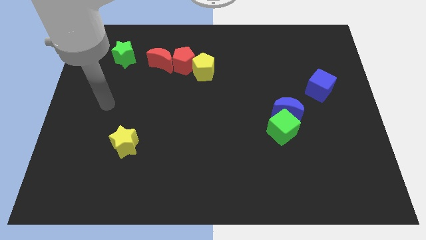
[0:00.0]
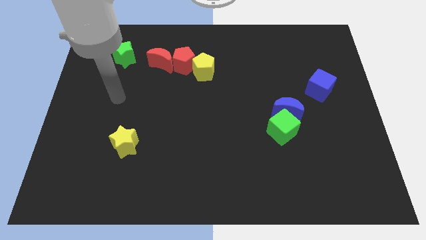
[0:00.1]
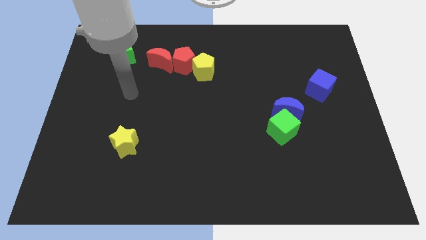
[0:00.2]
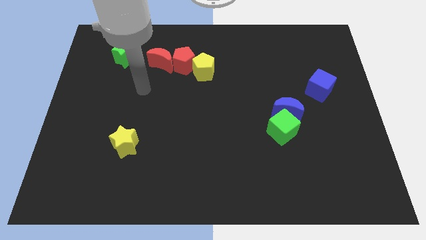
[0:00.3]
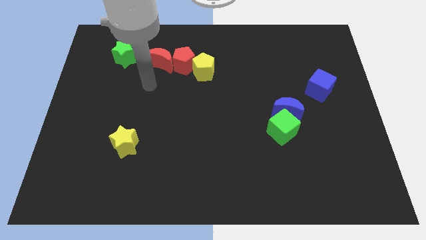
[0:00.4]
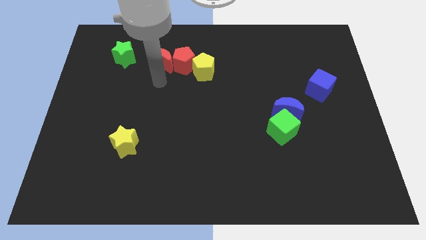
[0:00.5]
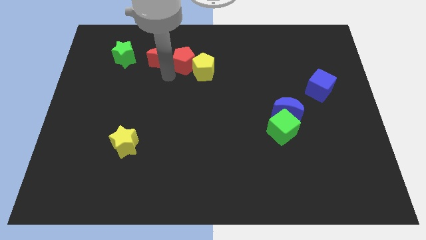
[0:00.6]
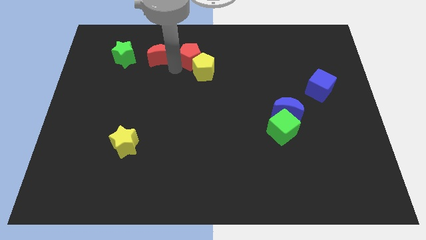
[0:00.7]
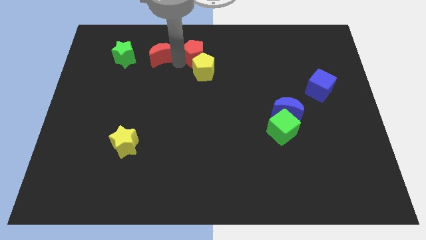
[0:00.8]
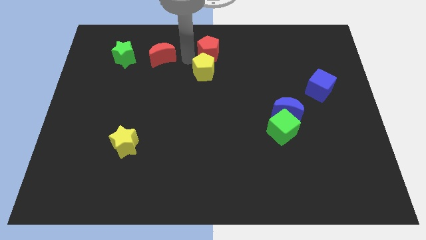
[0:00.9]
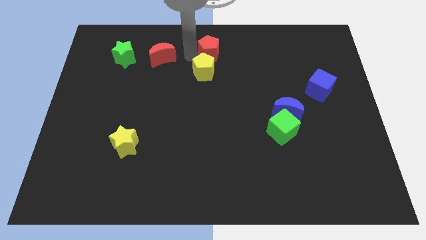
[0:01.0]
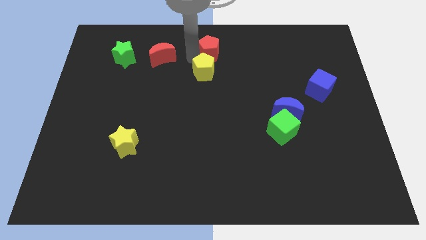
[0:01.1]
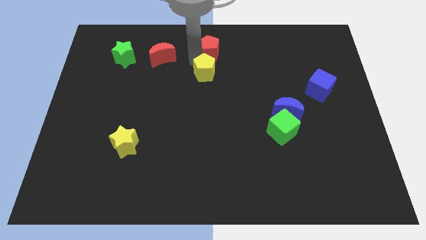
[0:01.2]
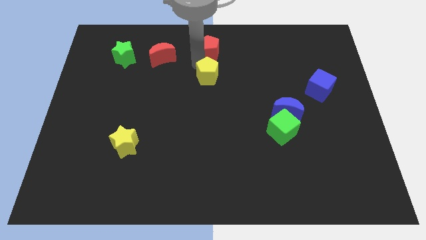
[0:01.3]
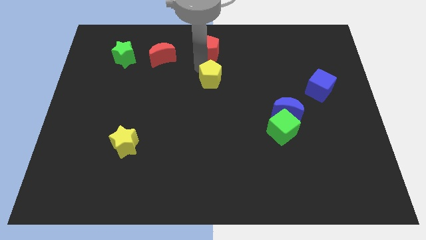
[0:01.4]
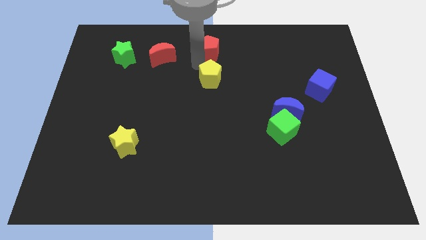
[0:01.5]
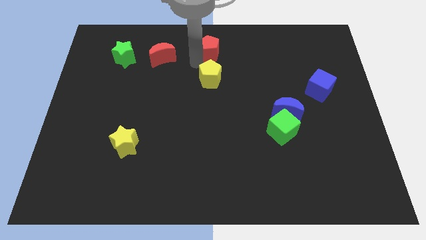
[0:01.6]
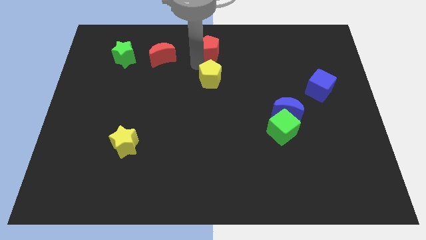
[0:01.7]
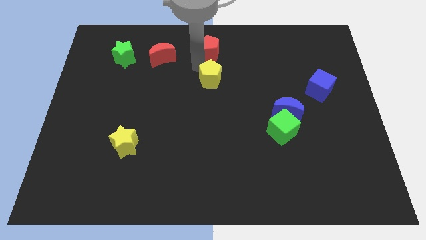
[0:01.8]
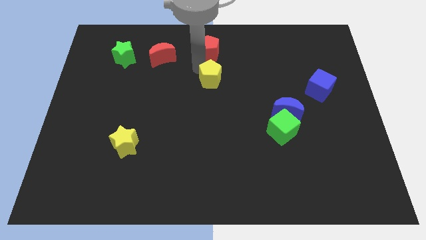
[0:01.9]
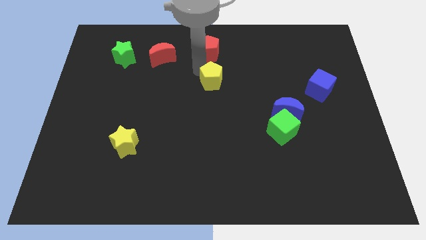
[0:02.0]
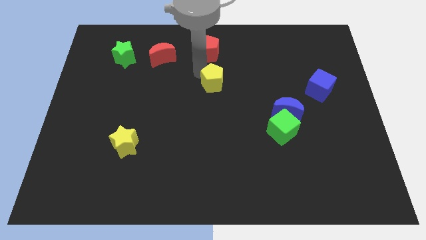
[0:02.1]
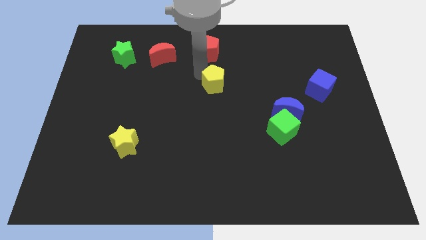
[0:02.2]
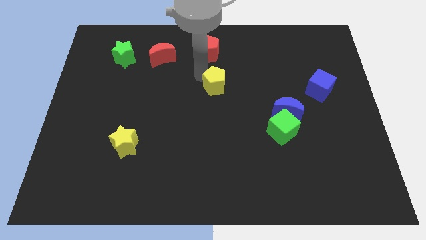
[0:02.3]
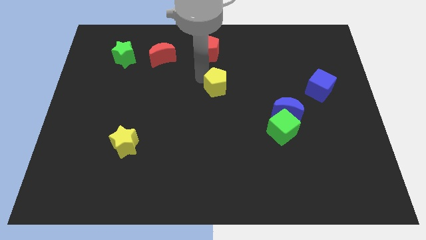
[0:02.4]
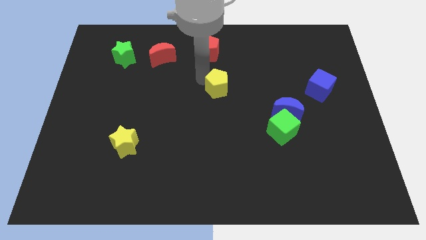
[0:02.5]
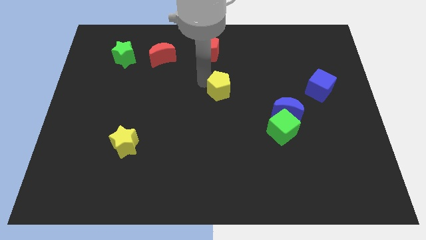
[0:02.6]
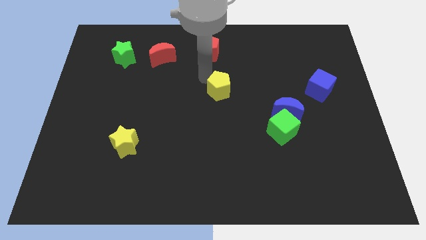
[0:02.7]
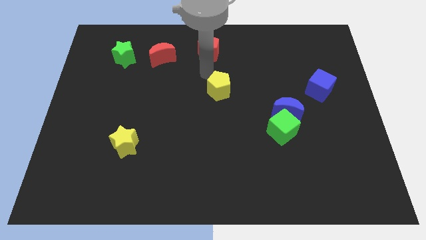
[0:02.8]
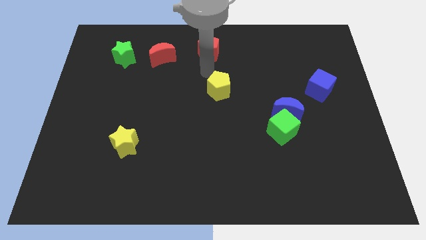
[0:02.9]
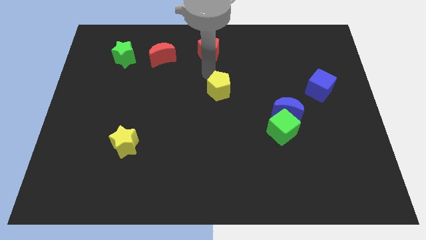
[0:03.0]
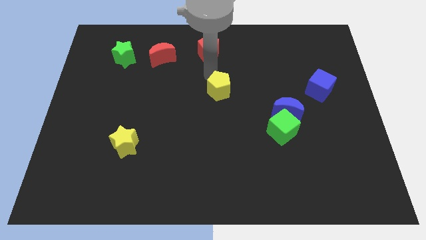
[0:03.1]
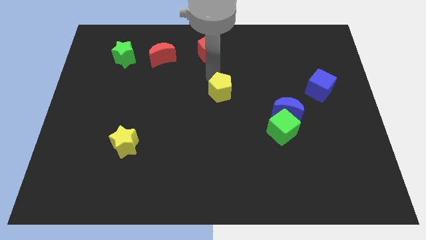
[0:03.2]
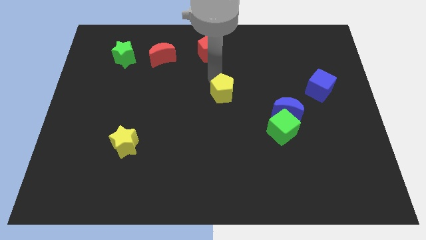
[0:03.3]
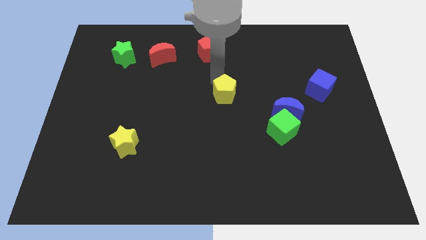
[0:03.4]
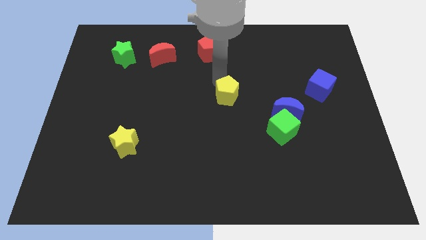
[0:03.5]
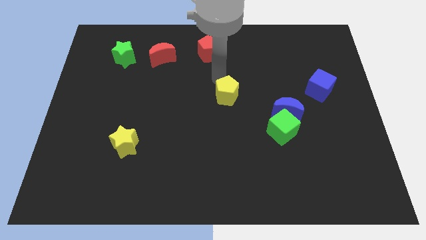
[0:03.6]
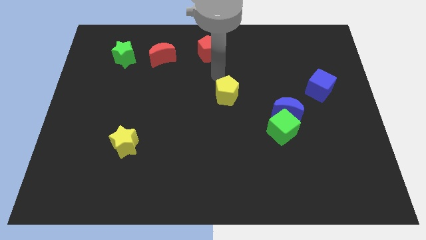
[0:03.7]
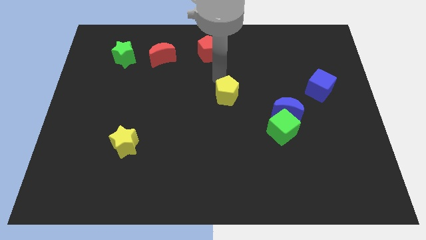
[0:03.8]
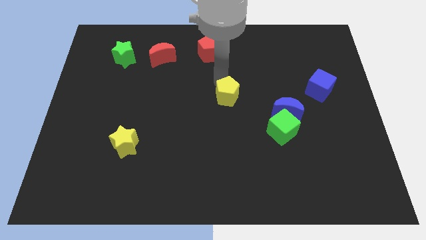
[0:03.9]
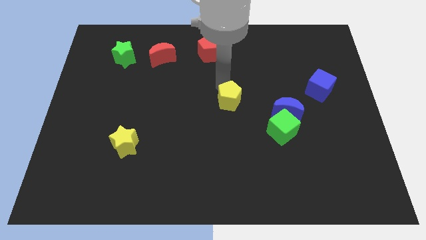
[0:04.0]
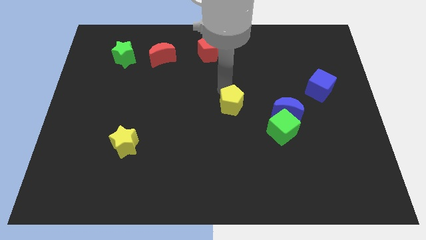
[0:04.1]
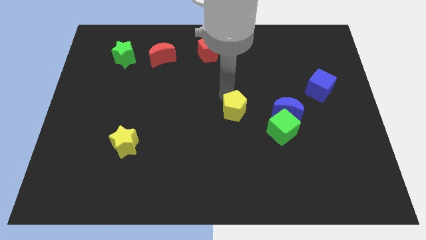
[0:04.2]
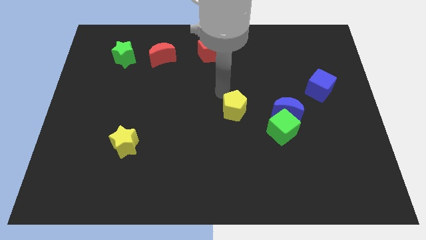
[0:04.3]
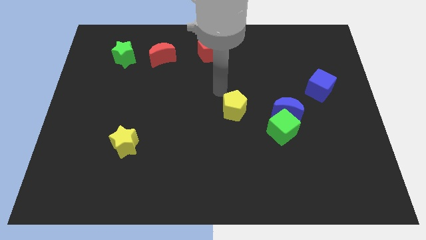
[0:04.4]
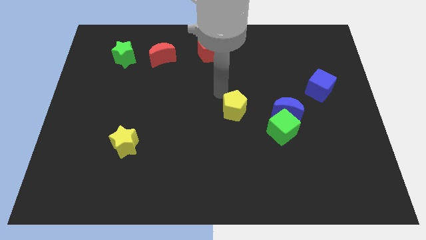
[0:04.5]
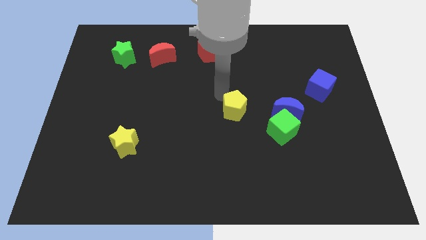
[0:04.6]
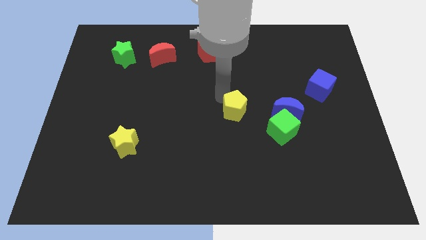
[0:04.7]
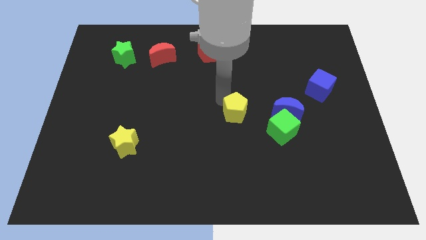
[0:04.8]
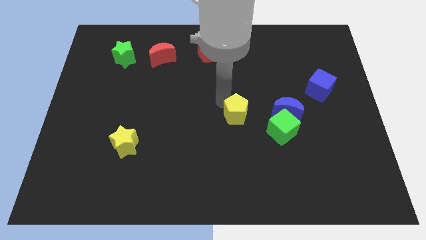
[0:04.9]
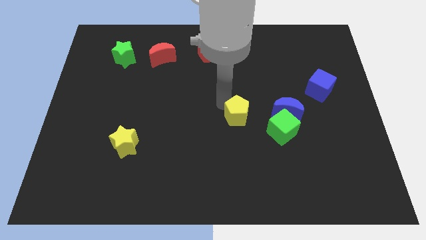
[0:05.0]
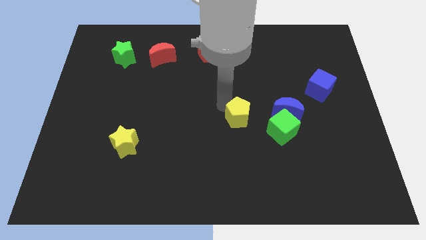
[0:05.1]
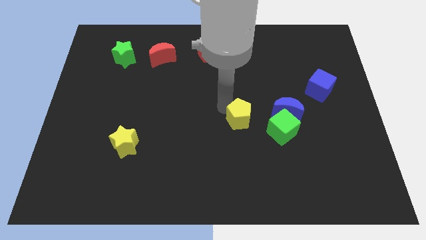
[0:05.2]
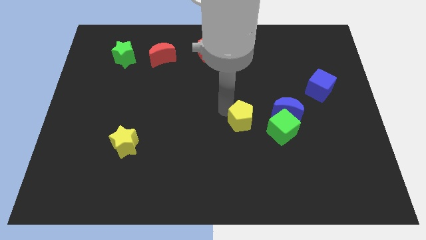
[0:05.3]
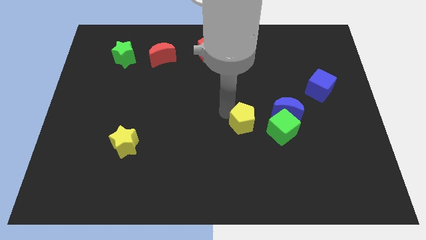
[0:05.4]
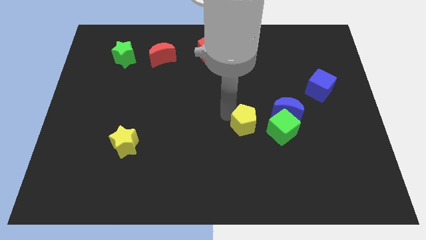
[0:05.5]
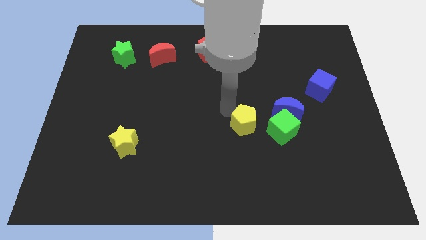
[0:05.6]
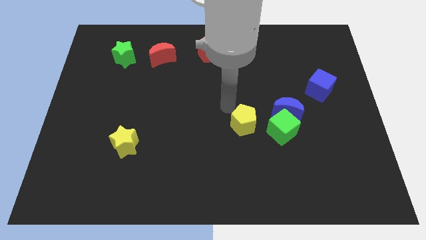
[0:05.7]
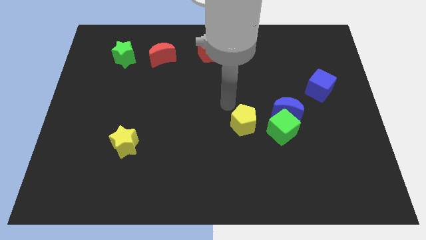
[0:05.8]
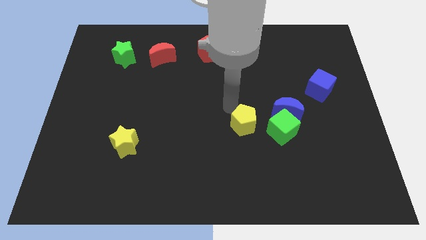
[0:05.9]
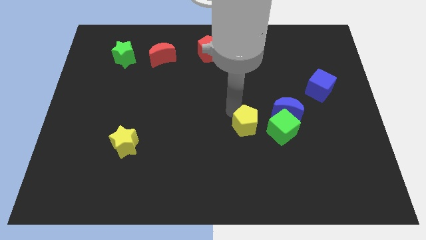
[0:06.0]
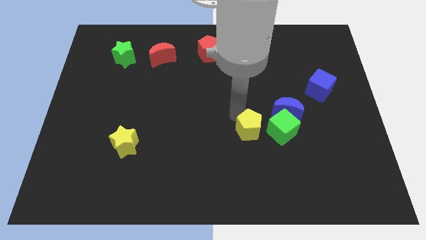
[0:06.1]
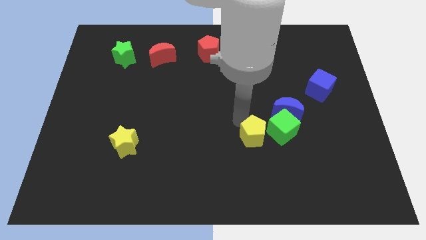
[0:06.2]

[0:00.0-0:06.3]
slide the yellow pentagon diagonally down and to the right

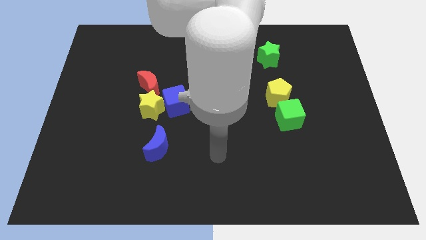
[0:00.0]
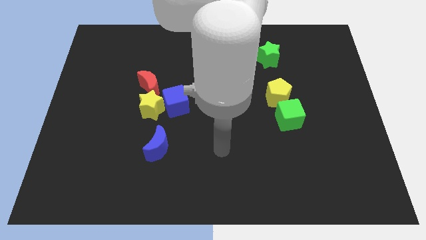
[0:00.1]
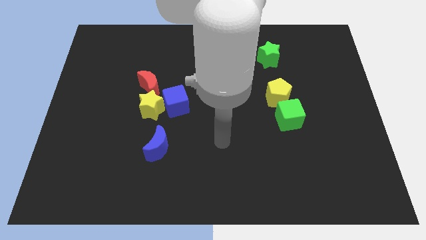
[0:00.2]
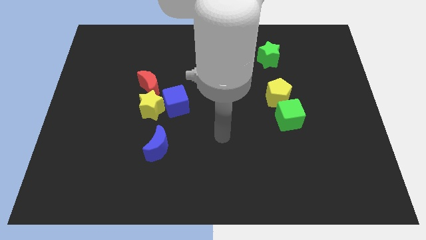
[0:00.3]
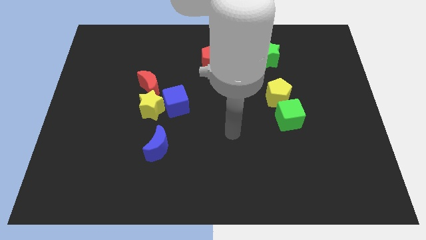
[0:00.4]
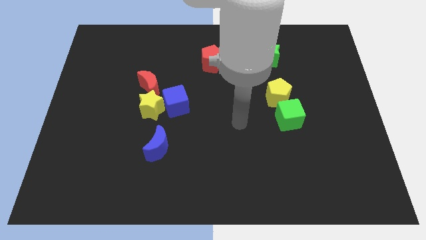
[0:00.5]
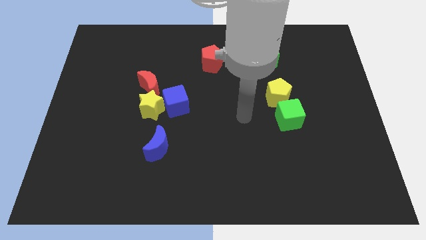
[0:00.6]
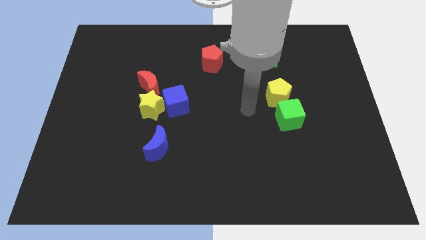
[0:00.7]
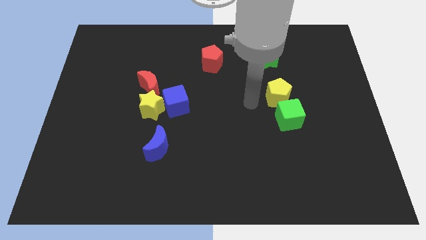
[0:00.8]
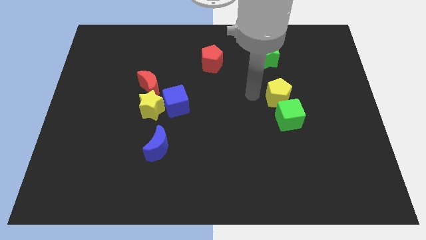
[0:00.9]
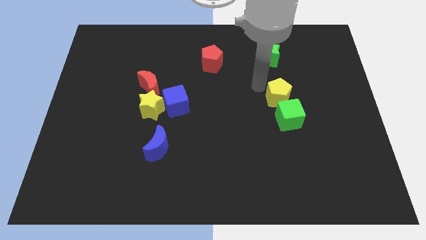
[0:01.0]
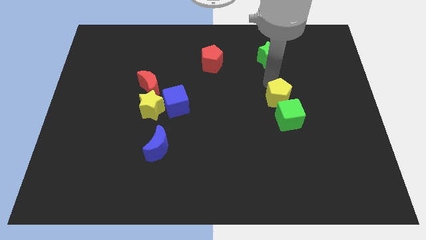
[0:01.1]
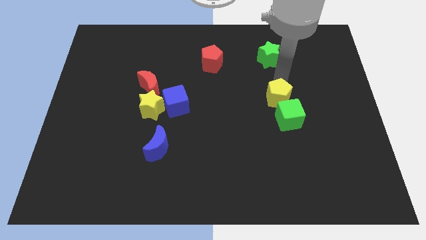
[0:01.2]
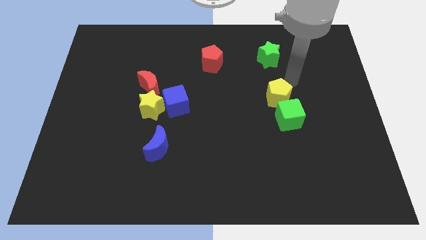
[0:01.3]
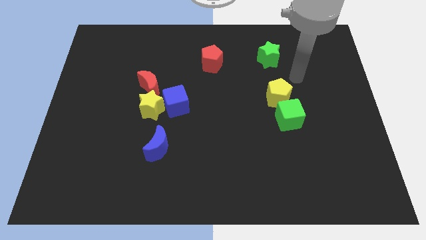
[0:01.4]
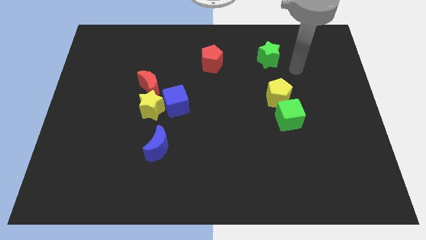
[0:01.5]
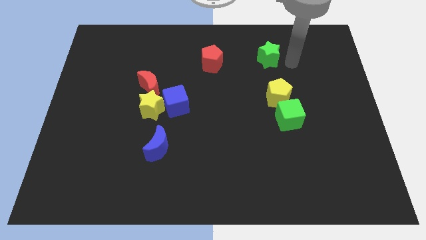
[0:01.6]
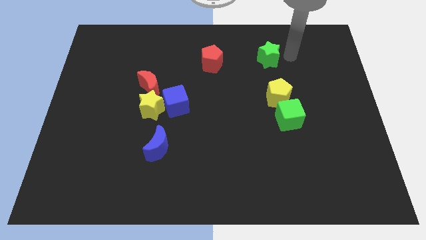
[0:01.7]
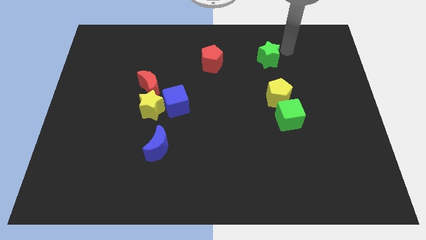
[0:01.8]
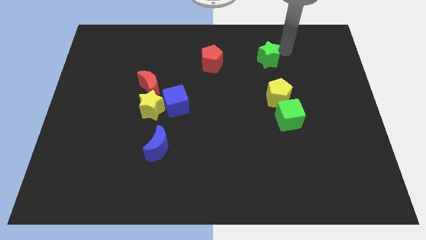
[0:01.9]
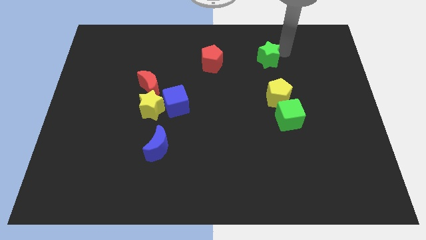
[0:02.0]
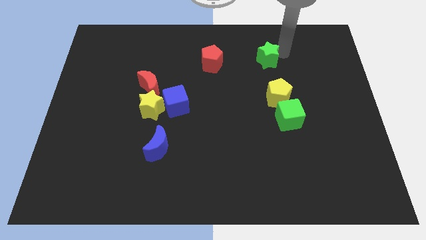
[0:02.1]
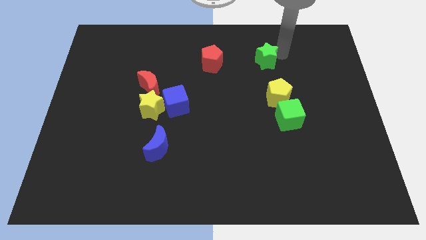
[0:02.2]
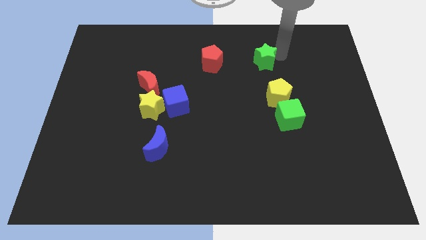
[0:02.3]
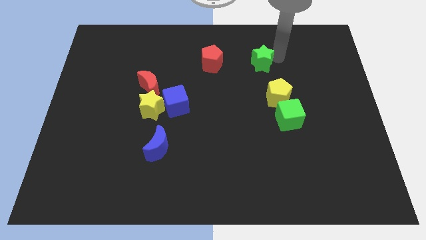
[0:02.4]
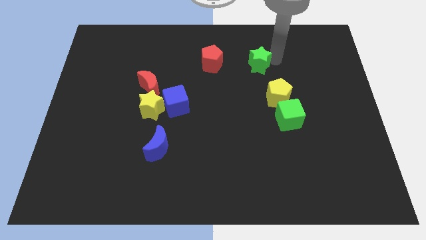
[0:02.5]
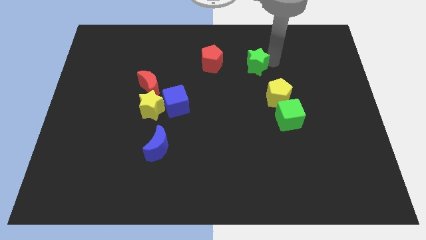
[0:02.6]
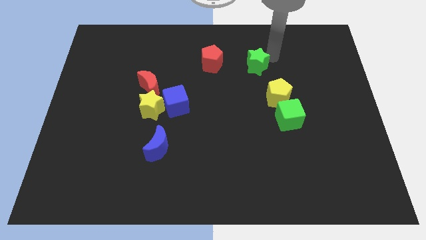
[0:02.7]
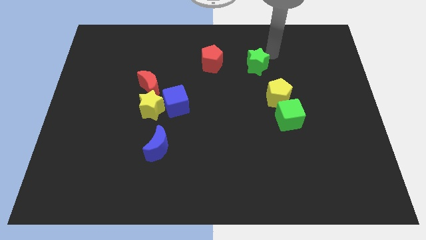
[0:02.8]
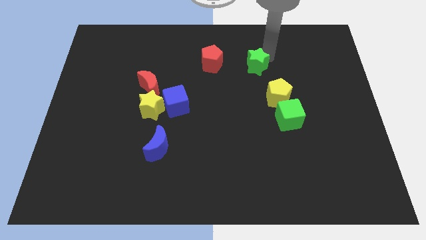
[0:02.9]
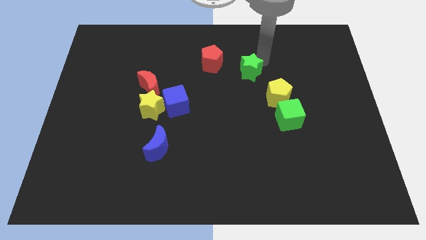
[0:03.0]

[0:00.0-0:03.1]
move the green star somewhat down and then left
